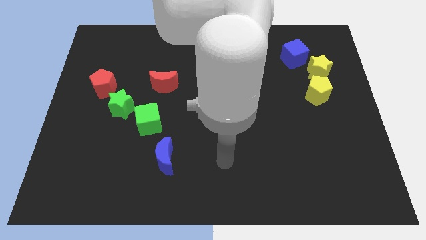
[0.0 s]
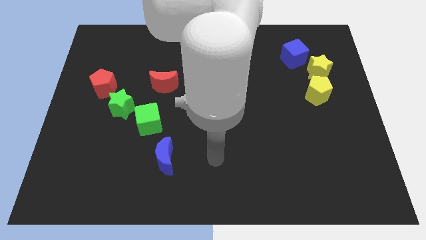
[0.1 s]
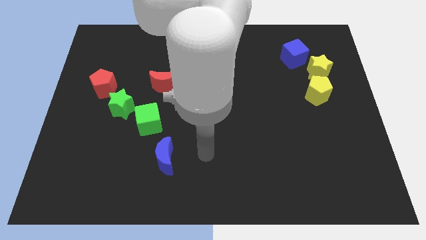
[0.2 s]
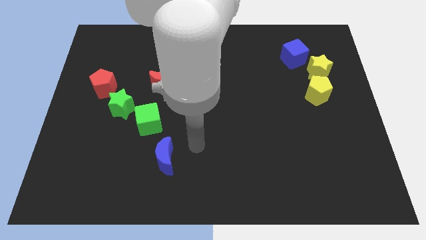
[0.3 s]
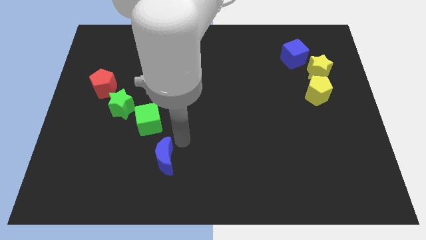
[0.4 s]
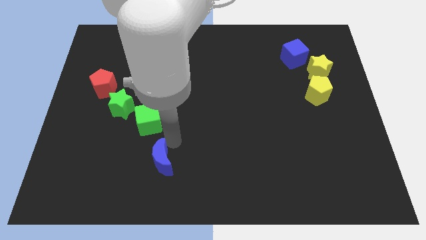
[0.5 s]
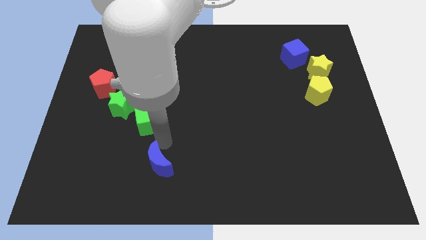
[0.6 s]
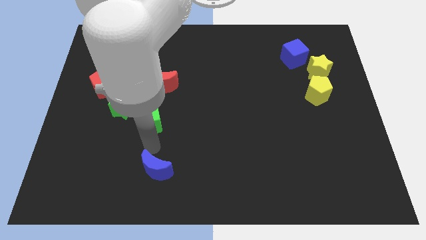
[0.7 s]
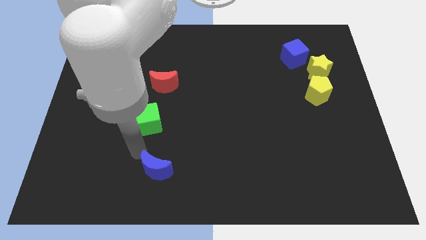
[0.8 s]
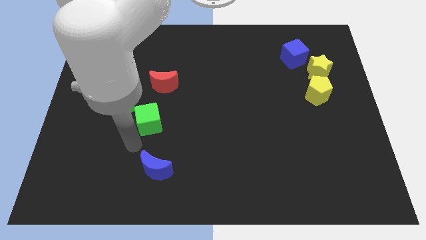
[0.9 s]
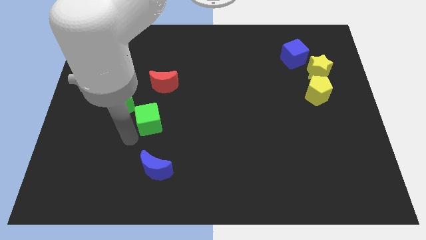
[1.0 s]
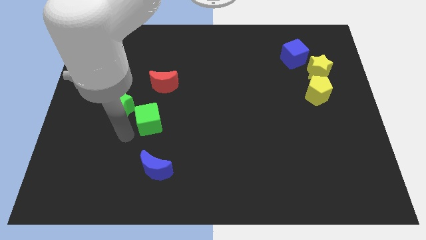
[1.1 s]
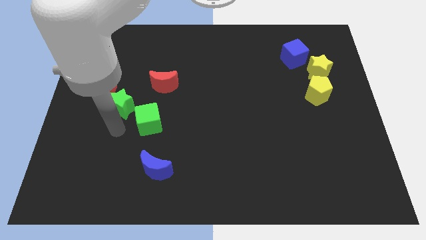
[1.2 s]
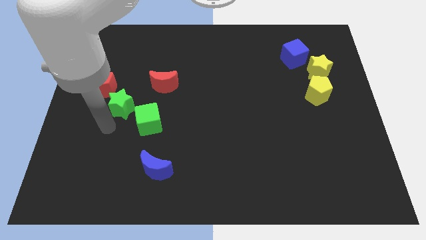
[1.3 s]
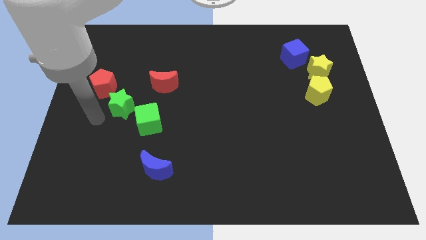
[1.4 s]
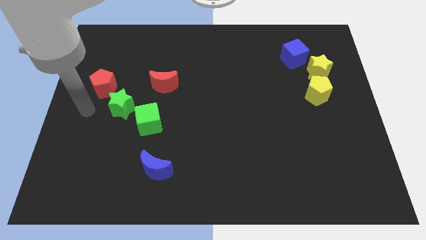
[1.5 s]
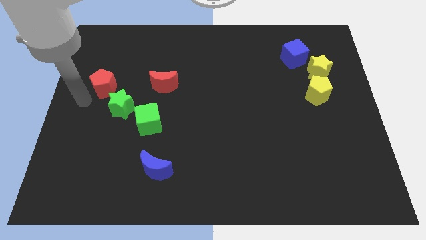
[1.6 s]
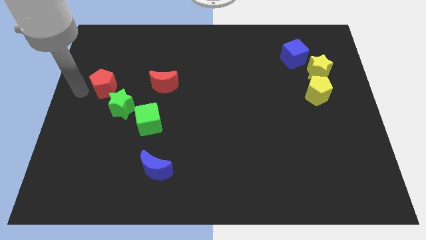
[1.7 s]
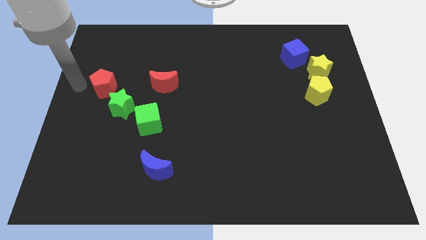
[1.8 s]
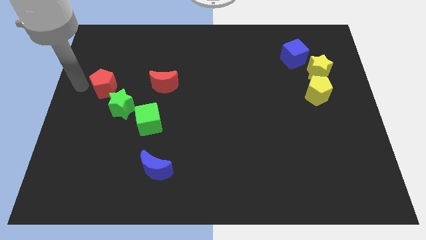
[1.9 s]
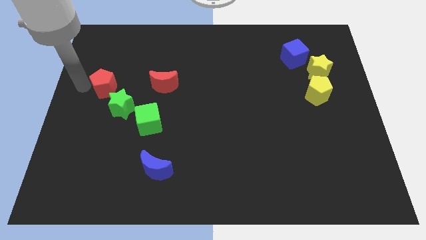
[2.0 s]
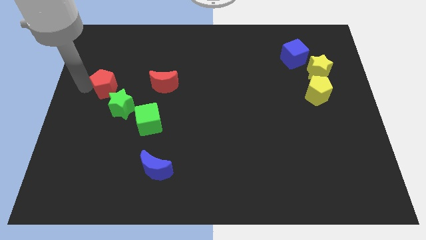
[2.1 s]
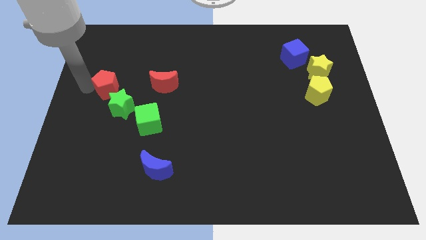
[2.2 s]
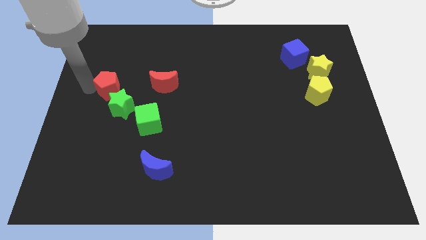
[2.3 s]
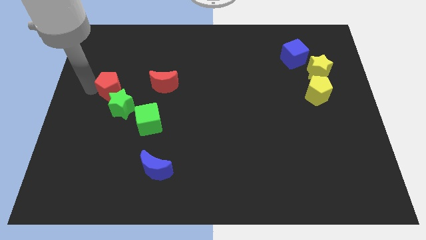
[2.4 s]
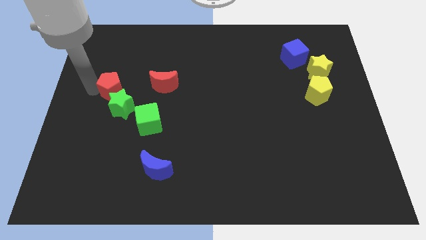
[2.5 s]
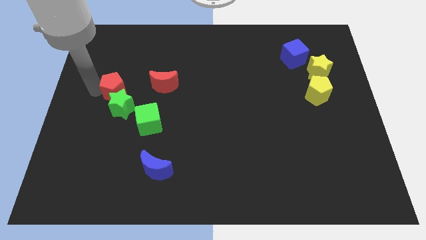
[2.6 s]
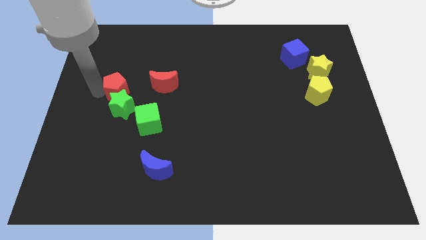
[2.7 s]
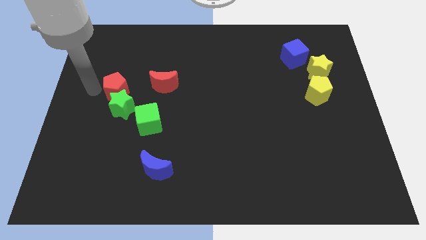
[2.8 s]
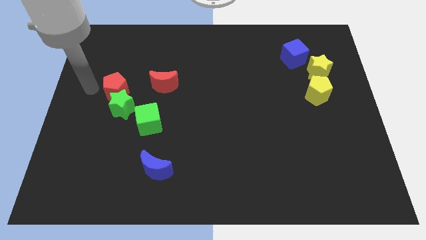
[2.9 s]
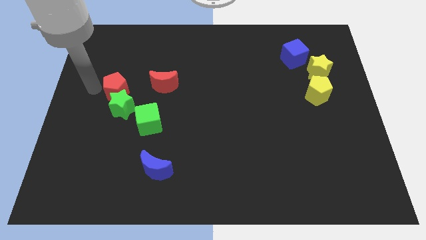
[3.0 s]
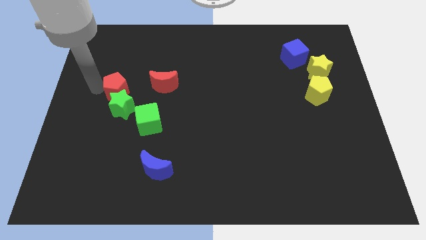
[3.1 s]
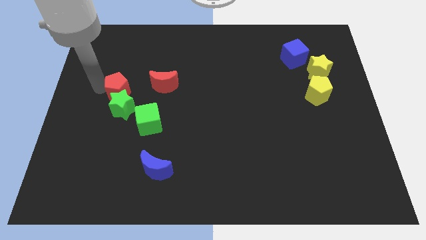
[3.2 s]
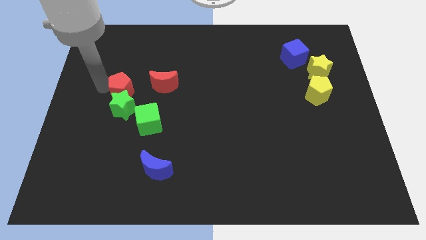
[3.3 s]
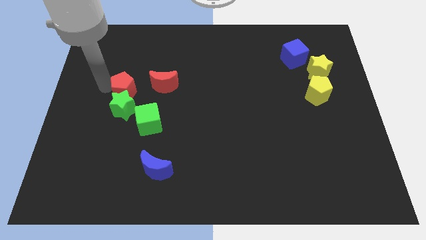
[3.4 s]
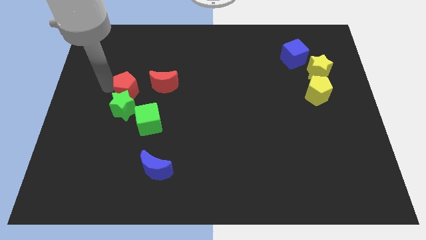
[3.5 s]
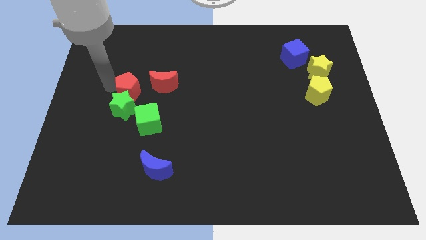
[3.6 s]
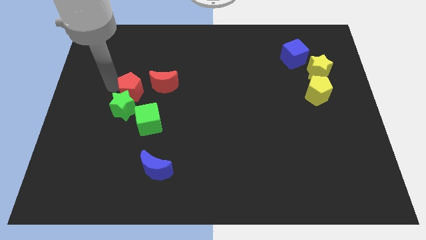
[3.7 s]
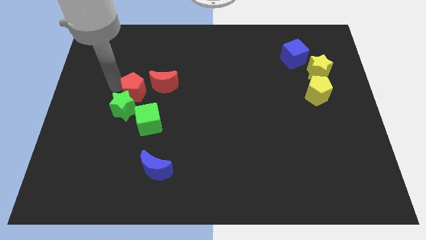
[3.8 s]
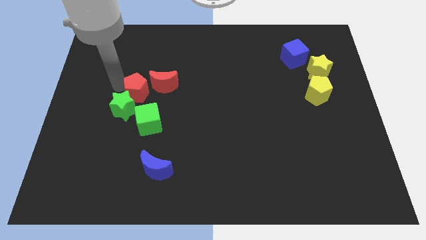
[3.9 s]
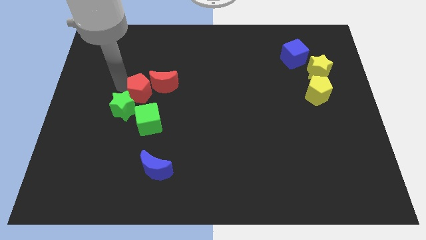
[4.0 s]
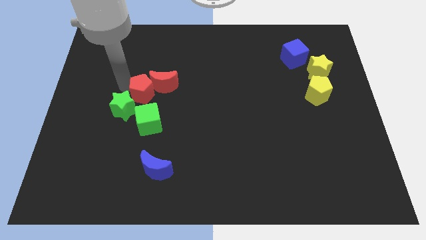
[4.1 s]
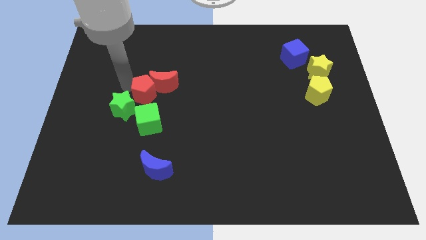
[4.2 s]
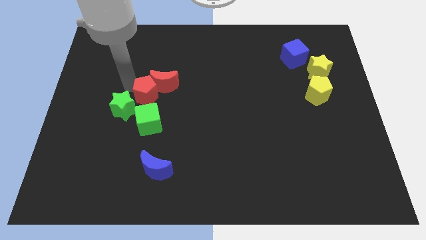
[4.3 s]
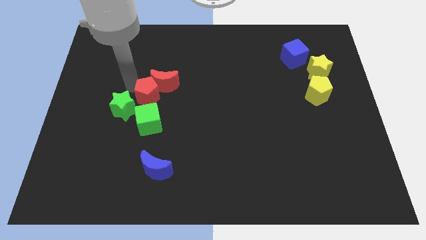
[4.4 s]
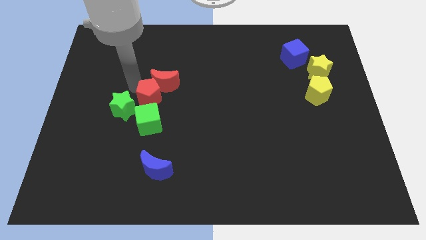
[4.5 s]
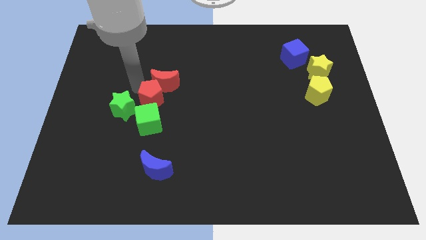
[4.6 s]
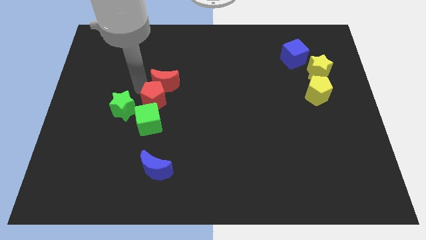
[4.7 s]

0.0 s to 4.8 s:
slide the red pentagon to the top right side of the green cube

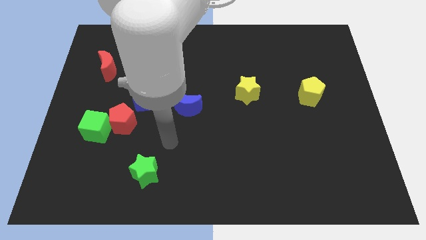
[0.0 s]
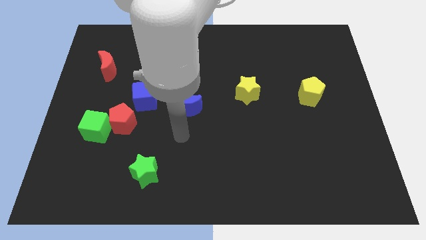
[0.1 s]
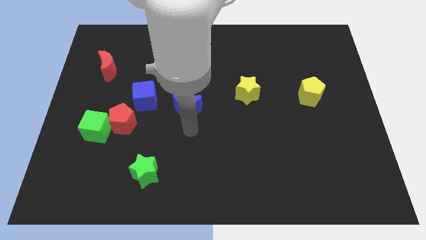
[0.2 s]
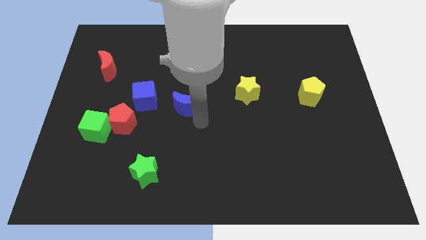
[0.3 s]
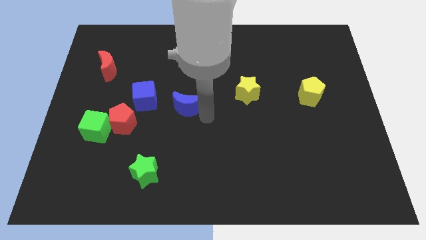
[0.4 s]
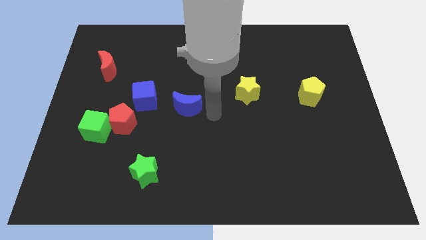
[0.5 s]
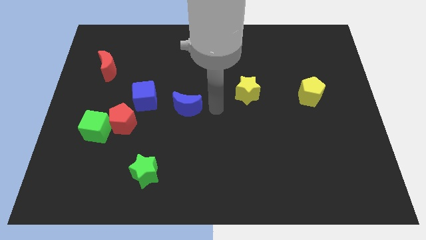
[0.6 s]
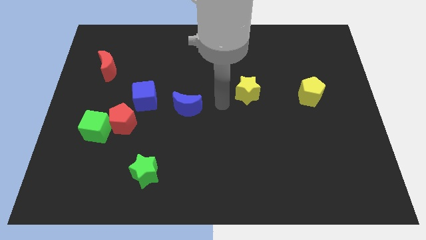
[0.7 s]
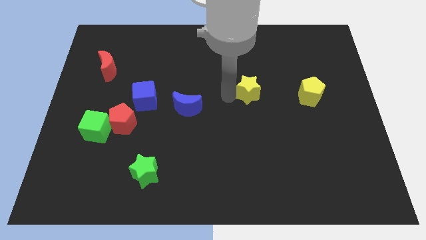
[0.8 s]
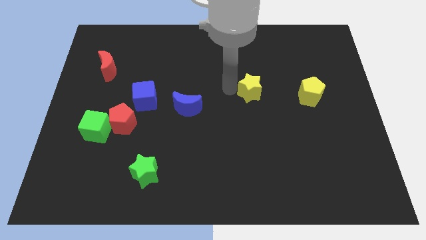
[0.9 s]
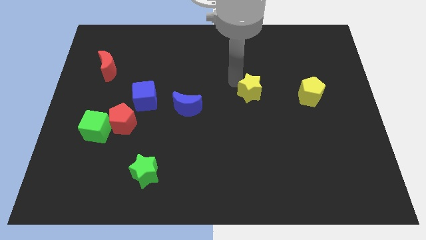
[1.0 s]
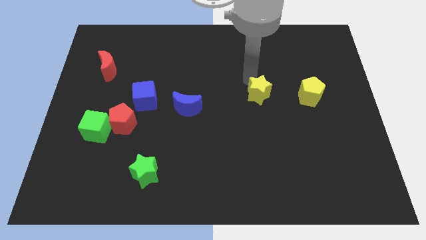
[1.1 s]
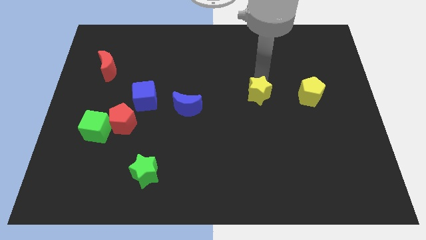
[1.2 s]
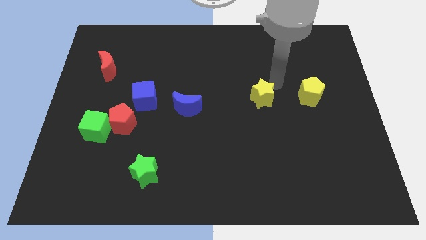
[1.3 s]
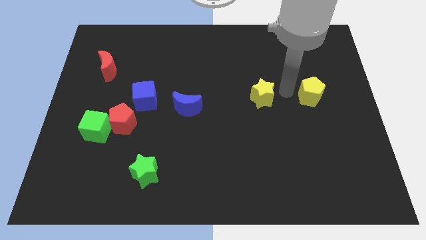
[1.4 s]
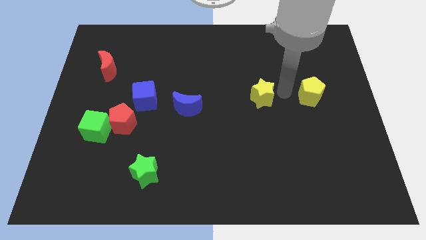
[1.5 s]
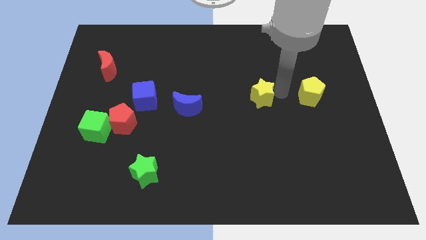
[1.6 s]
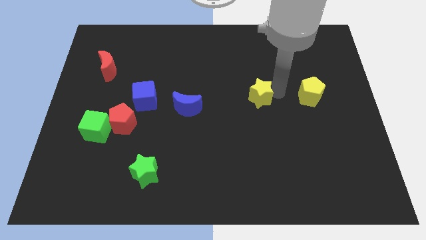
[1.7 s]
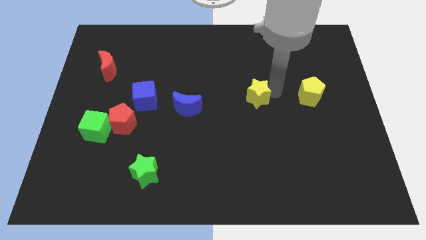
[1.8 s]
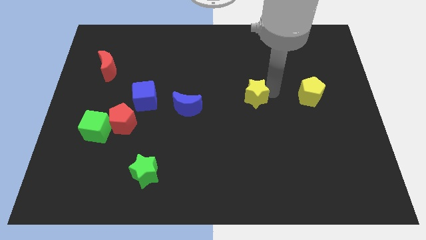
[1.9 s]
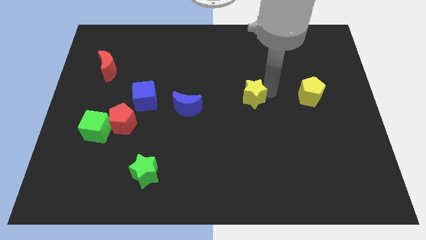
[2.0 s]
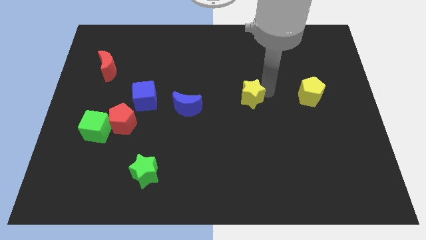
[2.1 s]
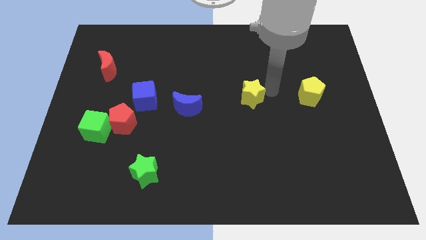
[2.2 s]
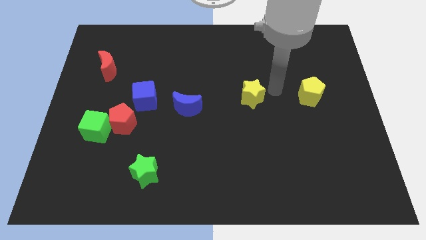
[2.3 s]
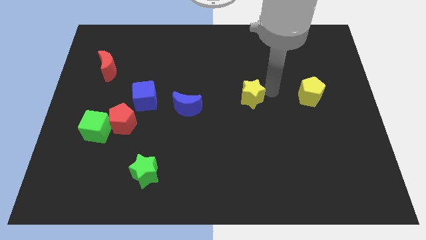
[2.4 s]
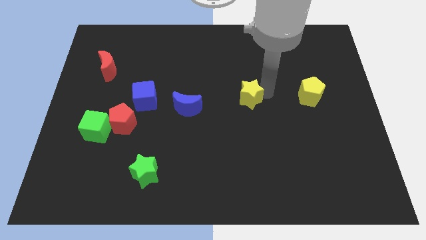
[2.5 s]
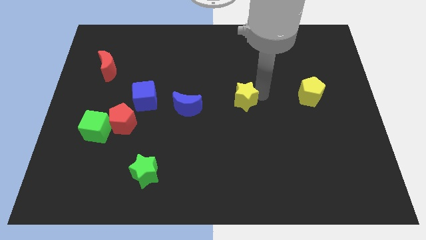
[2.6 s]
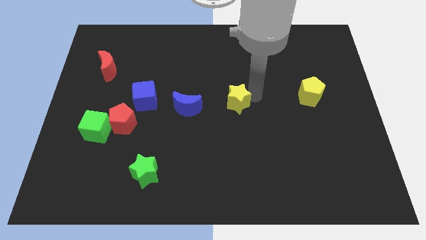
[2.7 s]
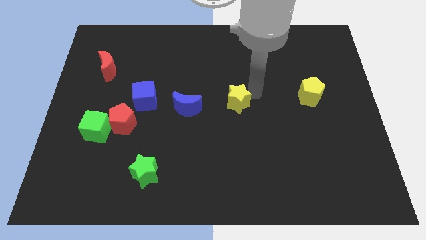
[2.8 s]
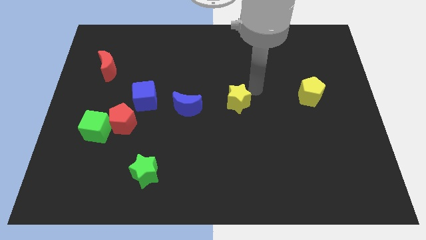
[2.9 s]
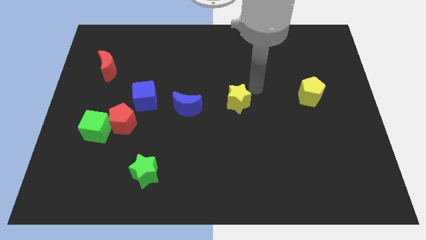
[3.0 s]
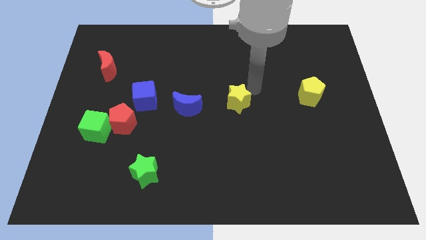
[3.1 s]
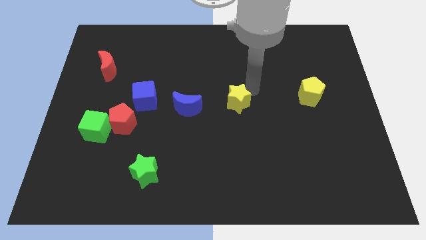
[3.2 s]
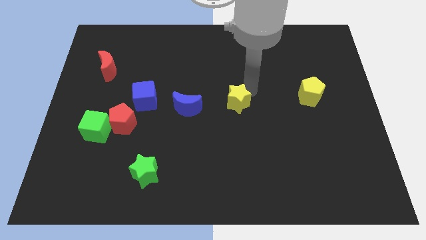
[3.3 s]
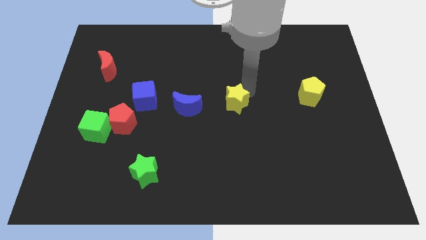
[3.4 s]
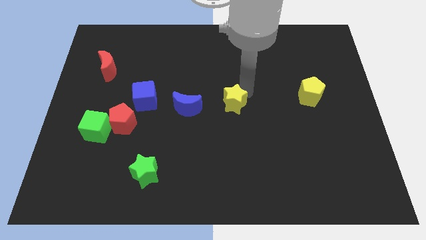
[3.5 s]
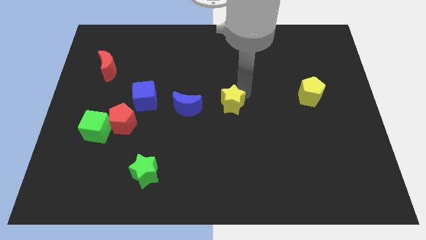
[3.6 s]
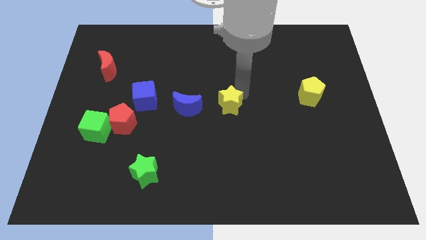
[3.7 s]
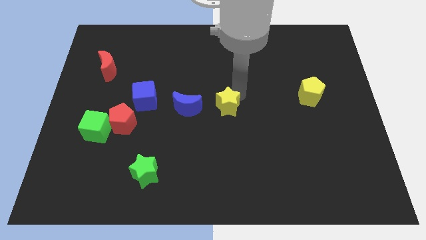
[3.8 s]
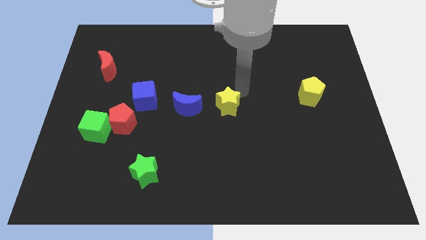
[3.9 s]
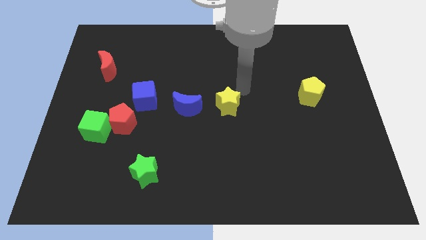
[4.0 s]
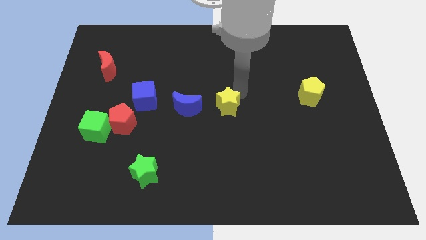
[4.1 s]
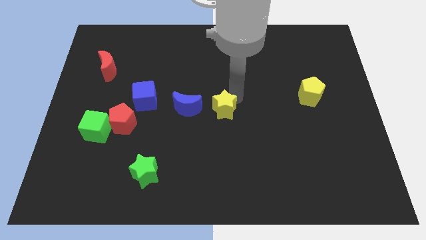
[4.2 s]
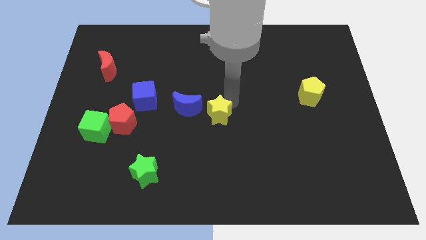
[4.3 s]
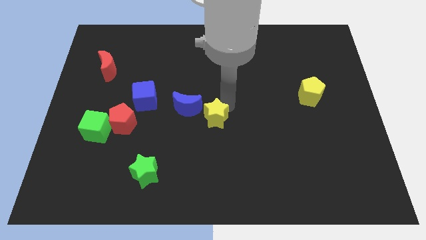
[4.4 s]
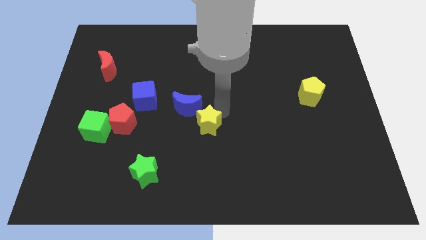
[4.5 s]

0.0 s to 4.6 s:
slide the yellow star to the bottom of the blue moon
